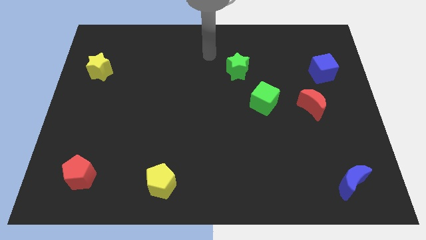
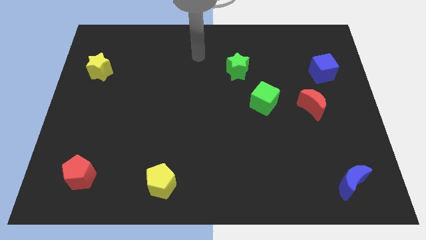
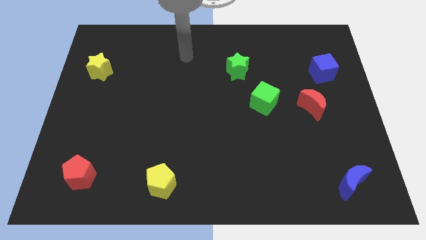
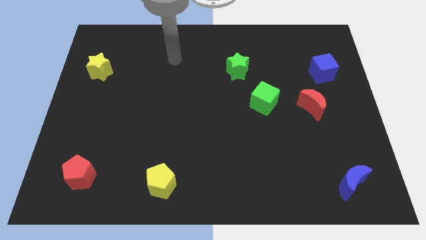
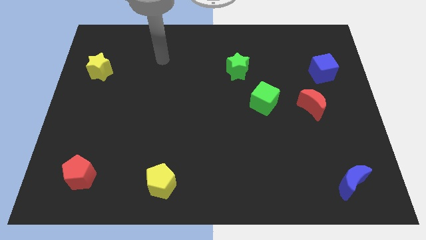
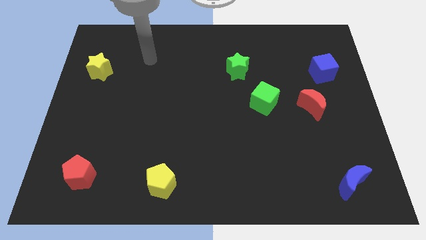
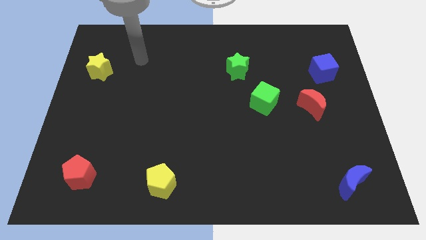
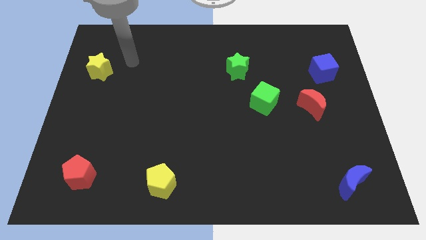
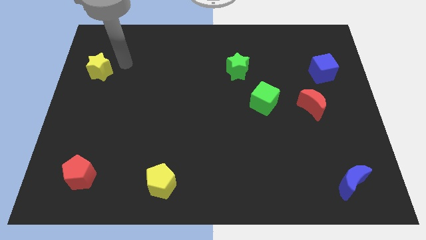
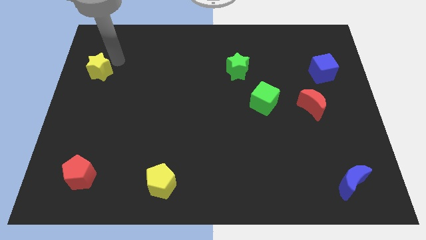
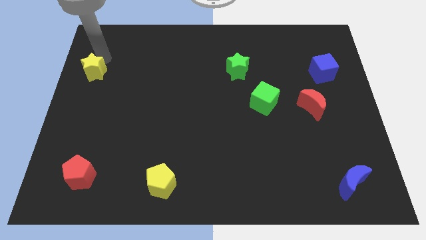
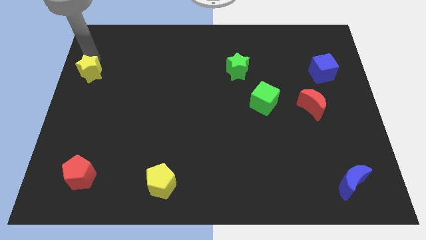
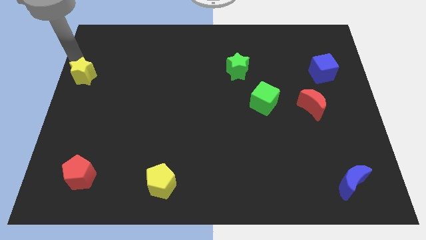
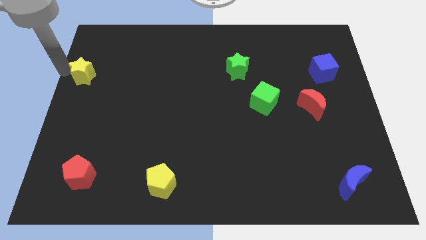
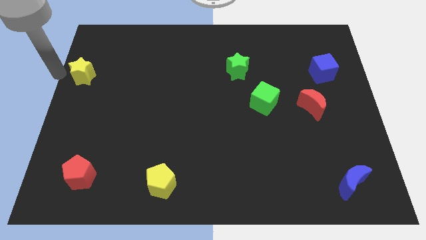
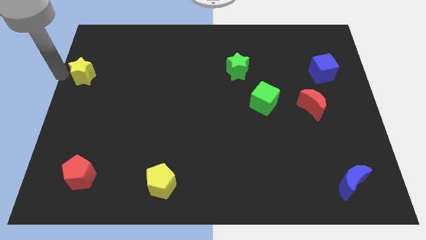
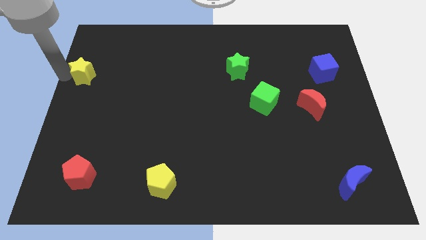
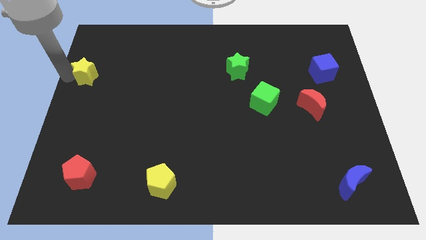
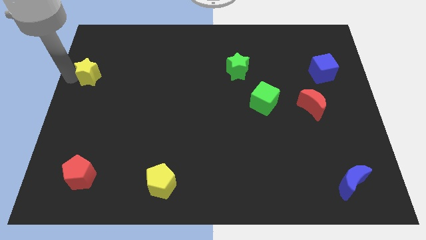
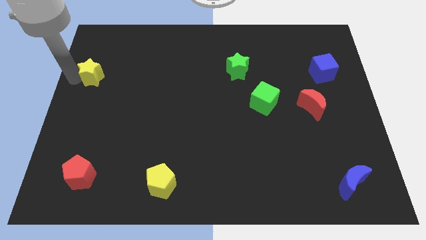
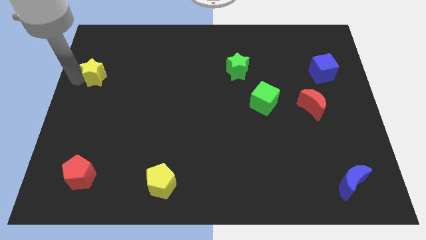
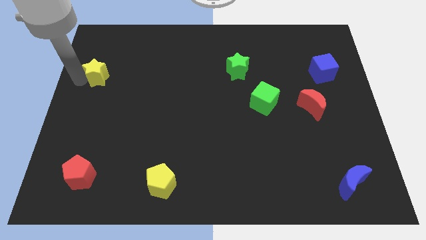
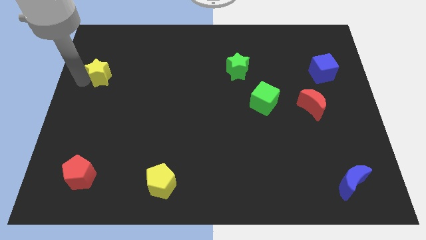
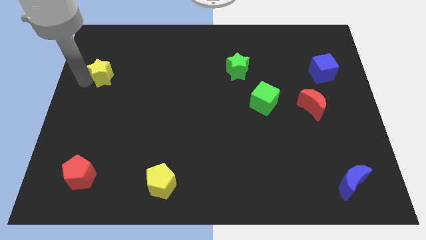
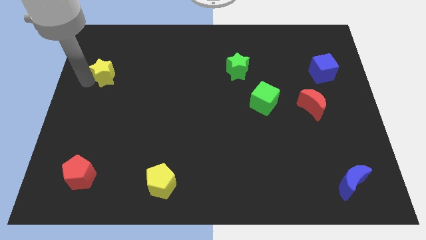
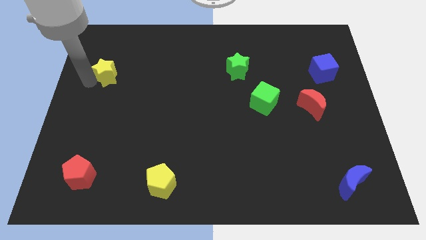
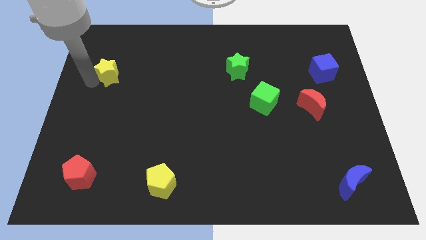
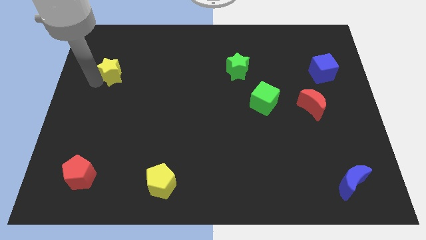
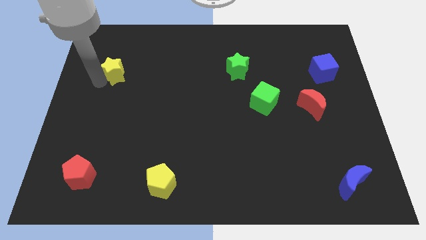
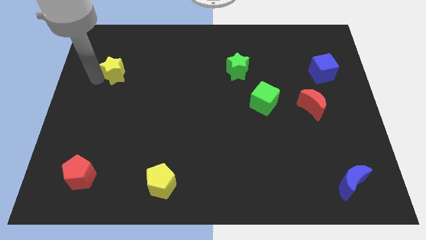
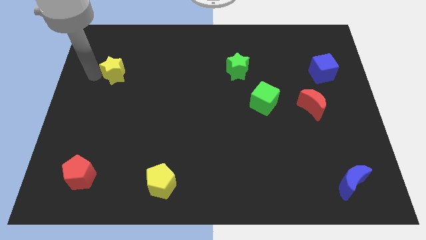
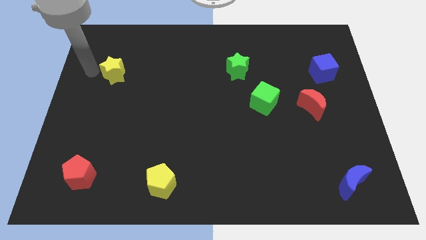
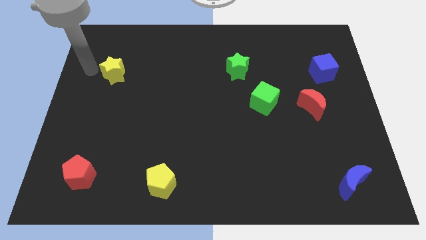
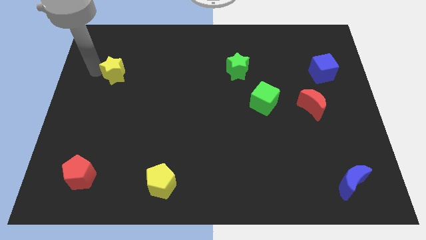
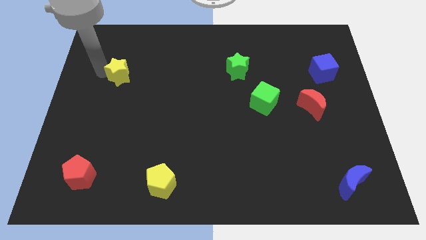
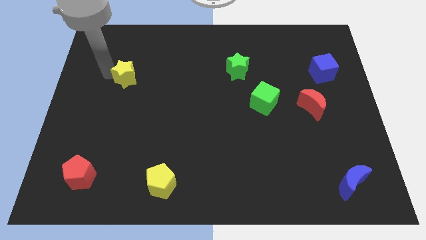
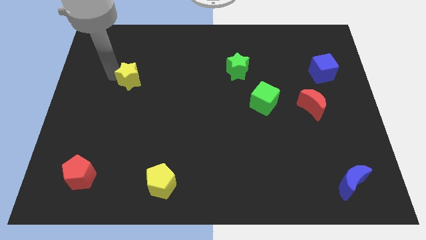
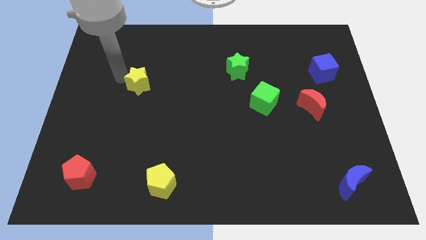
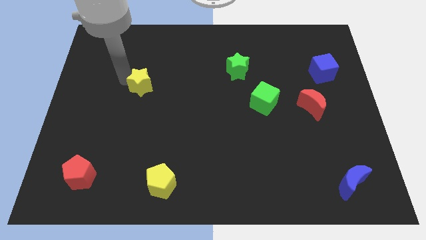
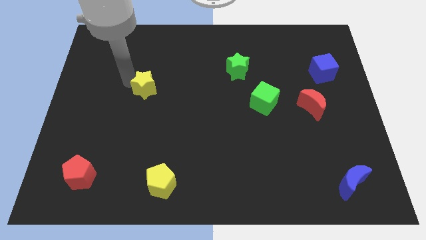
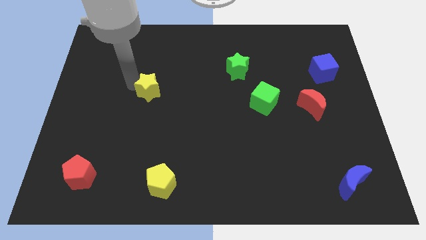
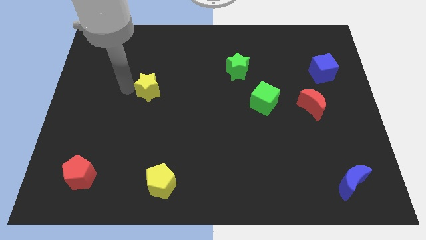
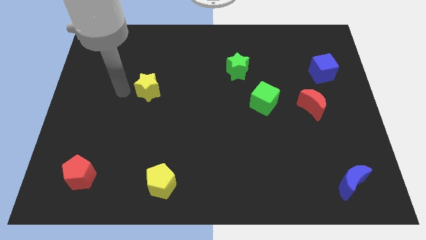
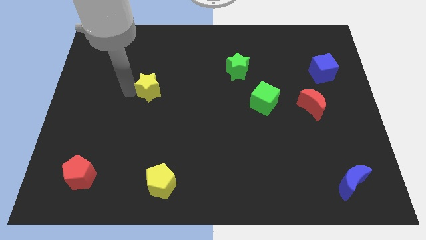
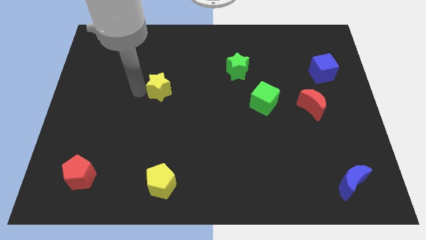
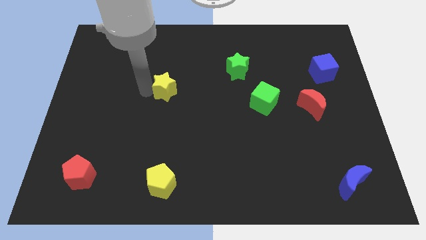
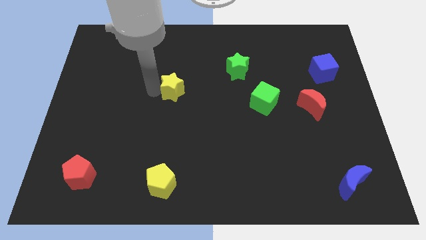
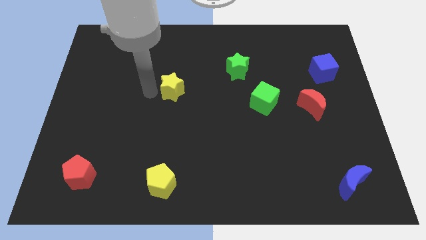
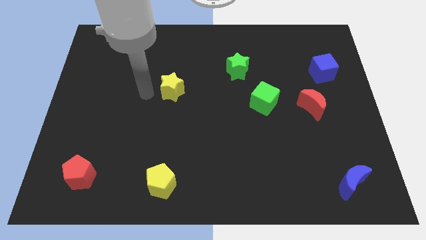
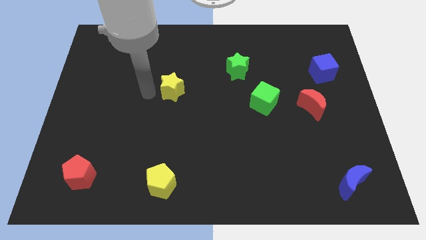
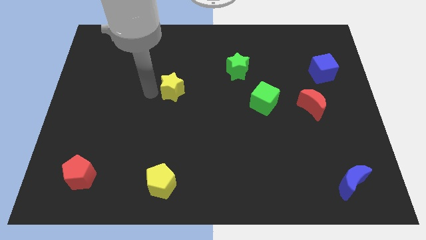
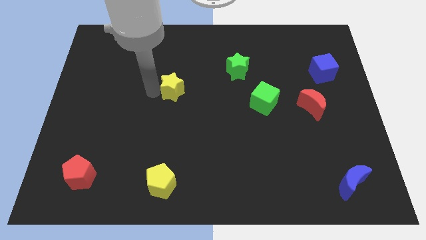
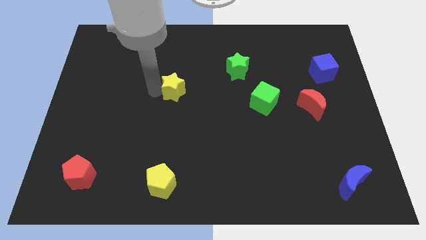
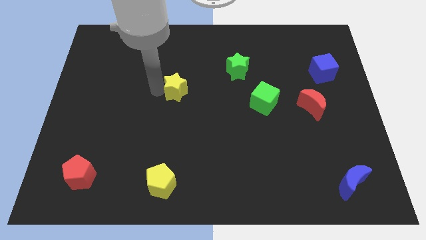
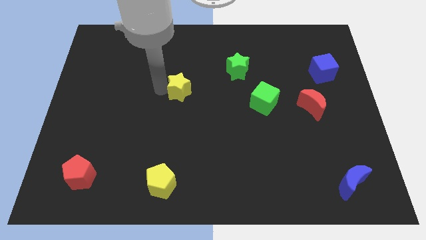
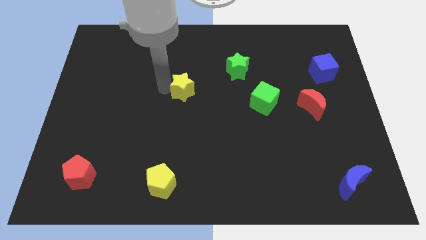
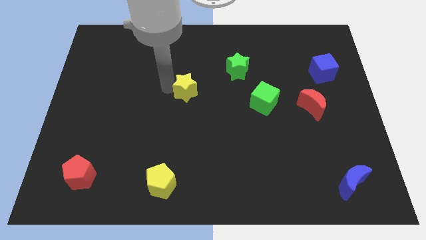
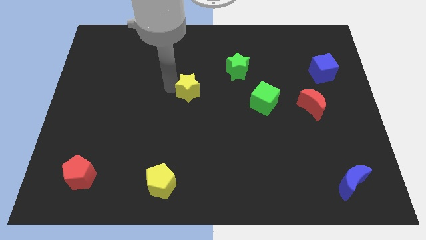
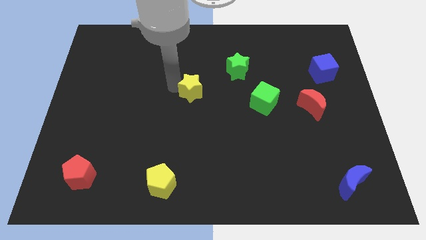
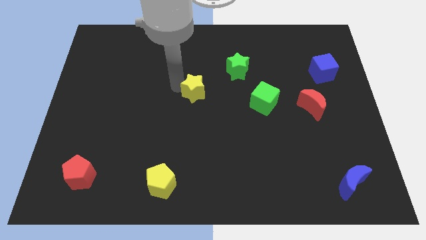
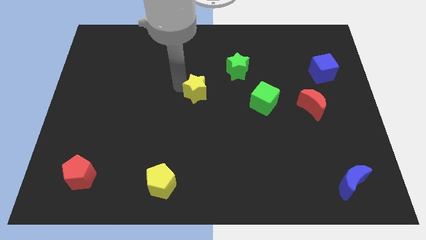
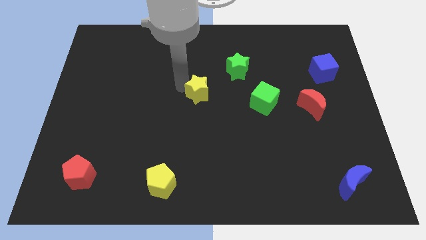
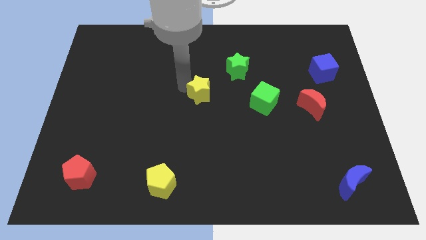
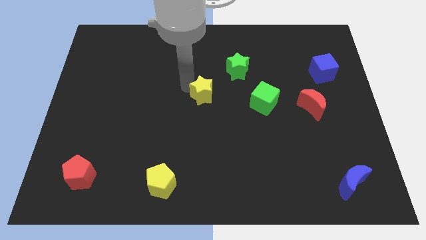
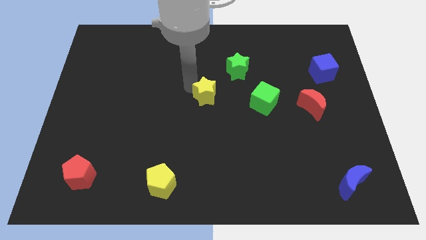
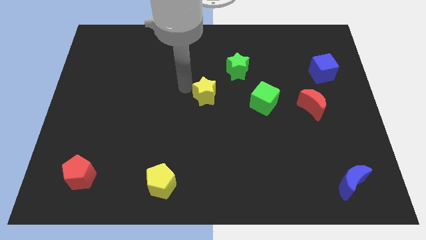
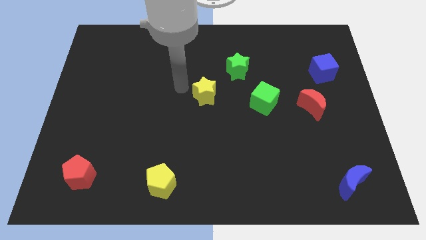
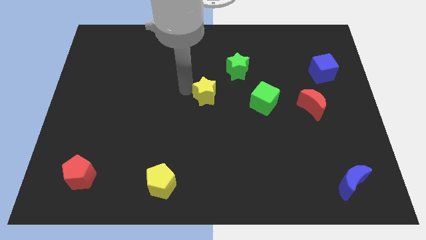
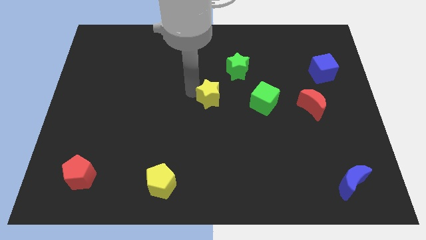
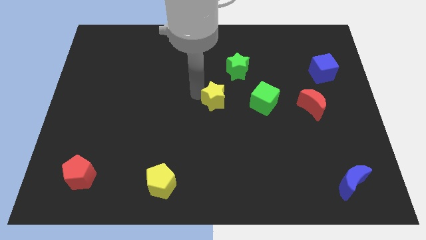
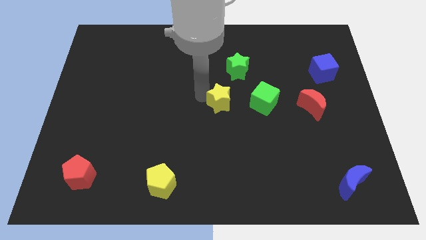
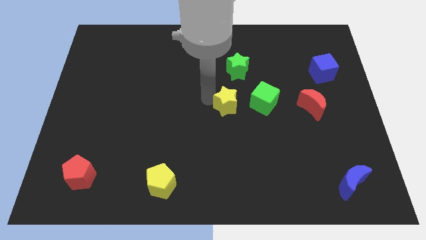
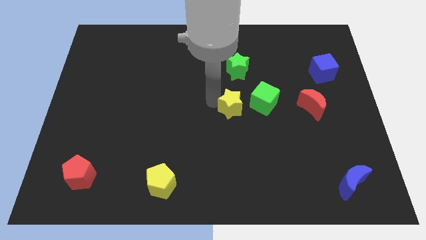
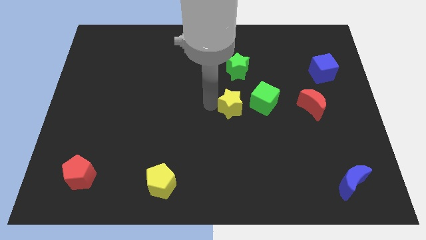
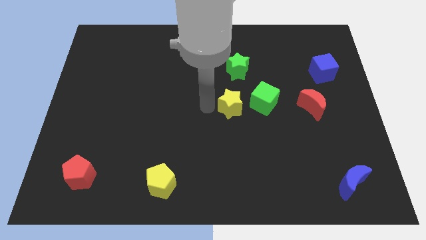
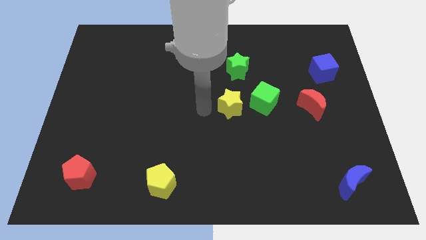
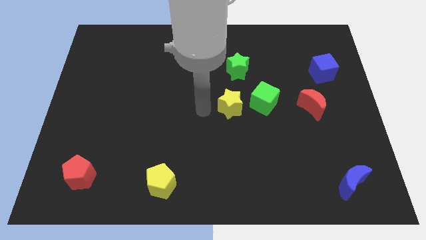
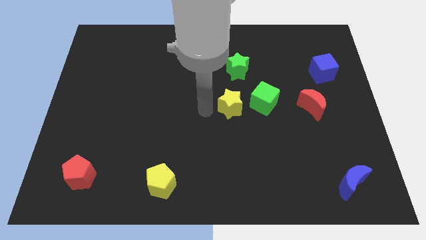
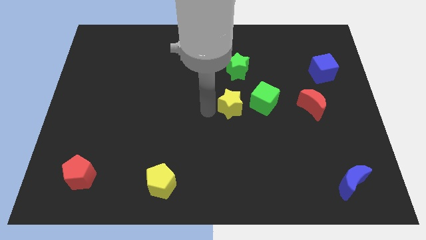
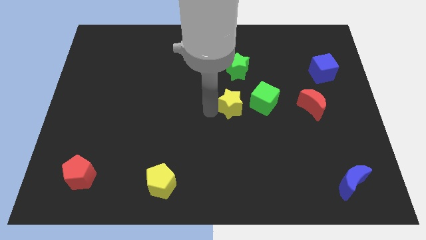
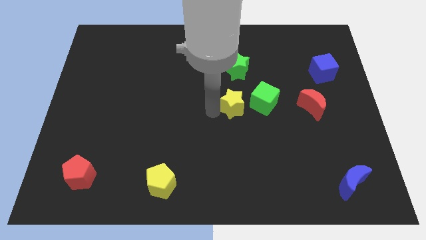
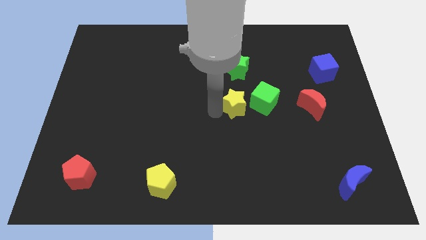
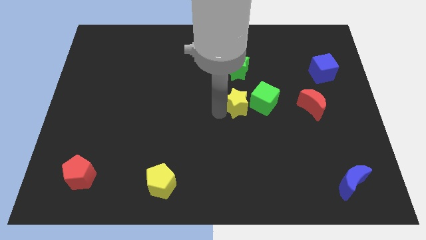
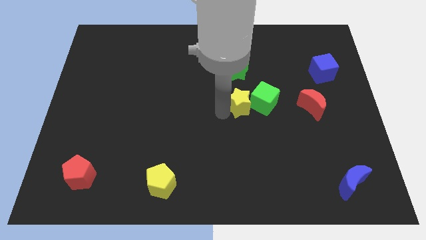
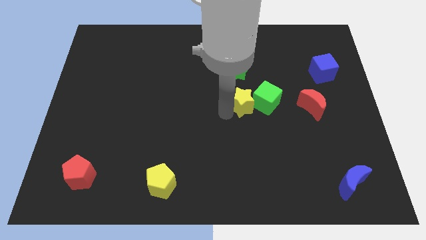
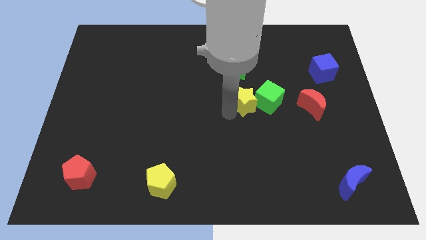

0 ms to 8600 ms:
put the yellow star just left of the red moon
